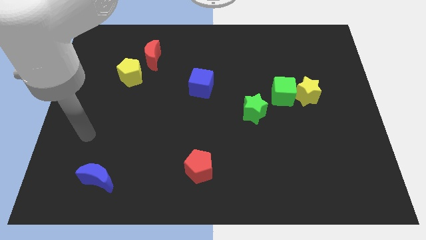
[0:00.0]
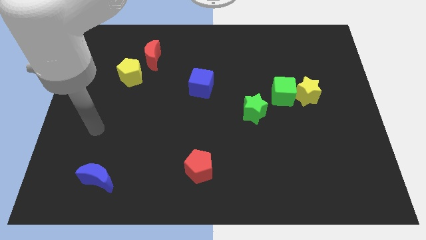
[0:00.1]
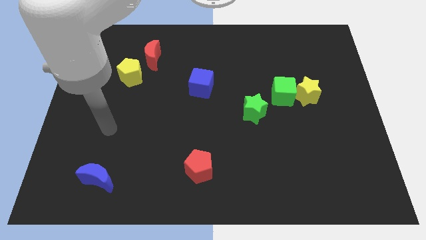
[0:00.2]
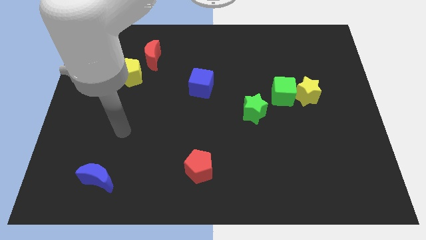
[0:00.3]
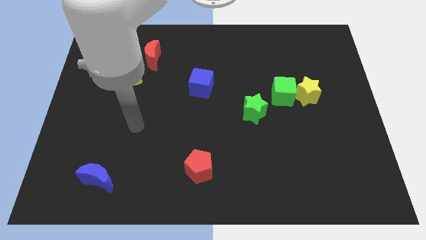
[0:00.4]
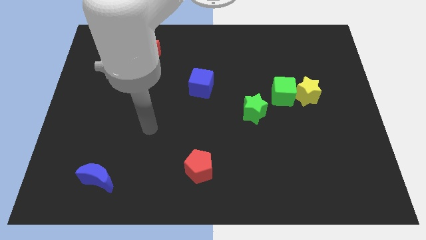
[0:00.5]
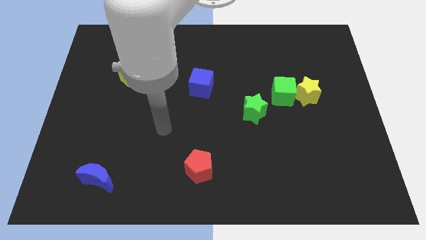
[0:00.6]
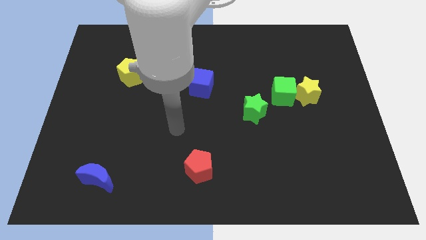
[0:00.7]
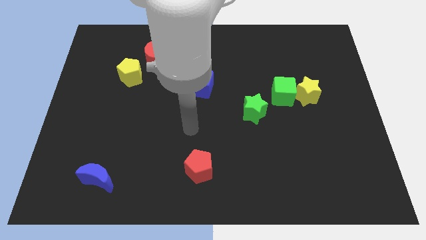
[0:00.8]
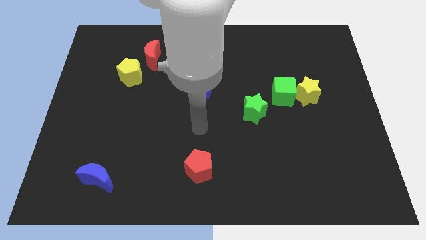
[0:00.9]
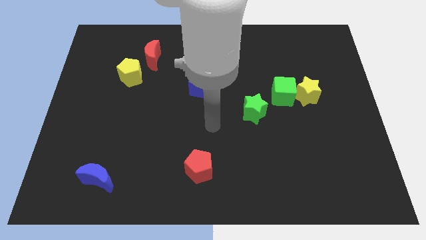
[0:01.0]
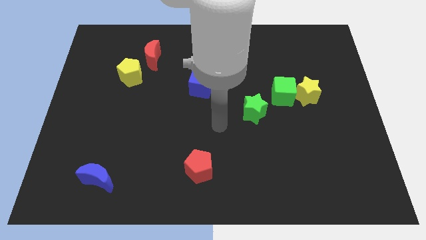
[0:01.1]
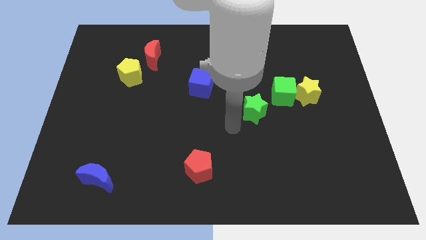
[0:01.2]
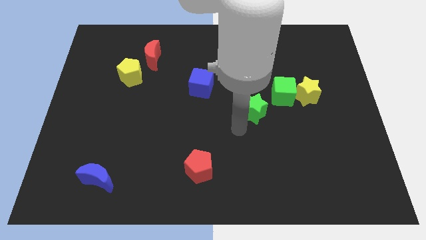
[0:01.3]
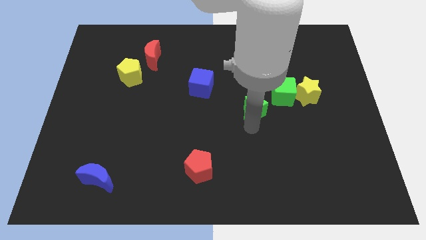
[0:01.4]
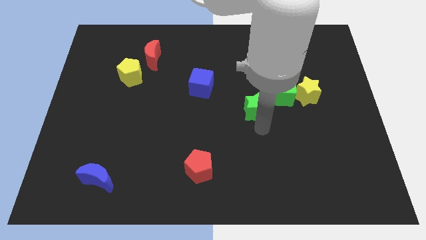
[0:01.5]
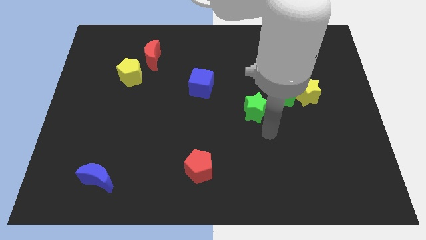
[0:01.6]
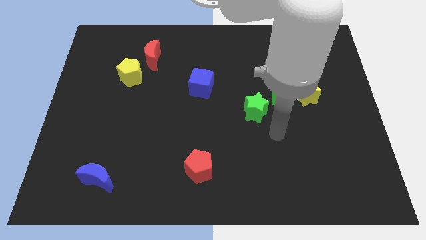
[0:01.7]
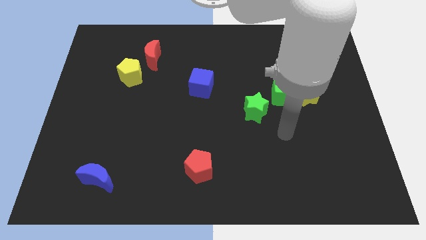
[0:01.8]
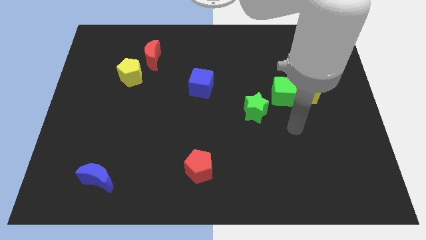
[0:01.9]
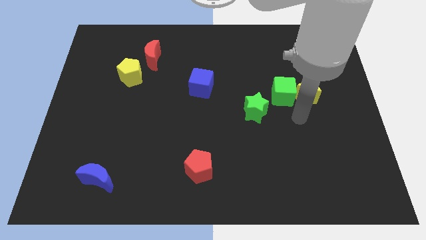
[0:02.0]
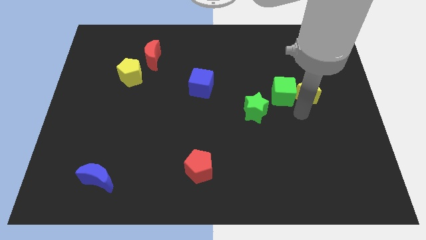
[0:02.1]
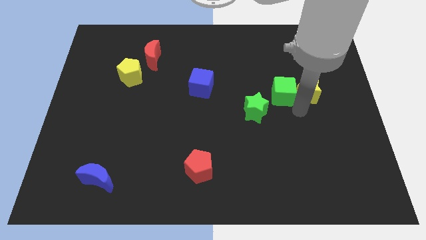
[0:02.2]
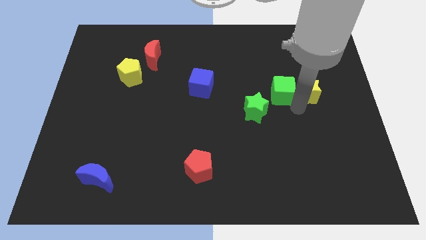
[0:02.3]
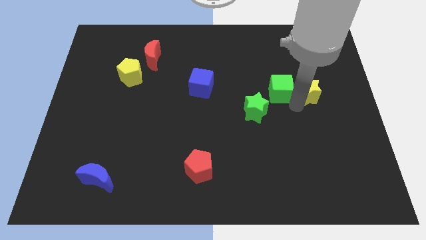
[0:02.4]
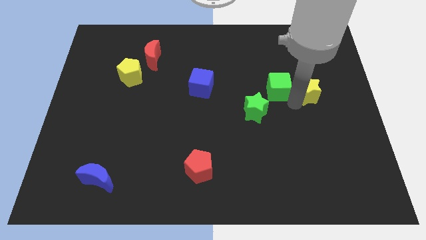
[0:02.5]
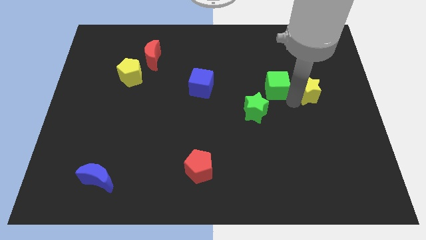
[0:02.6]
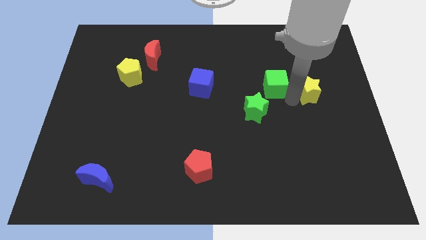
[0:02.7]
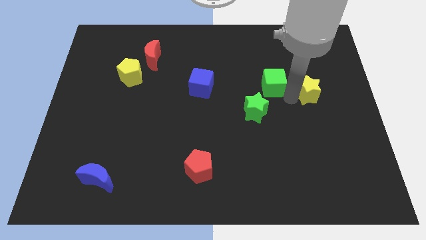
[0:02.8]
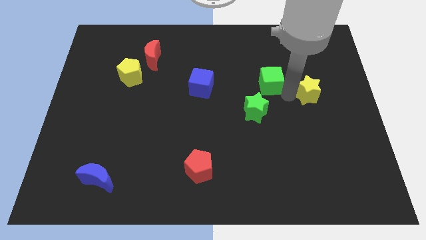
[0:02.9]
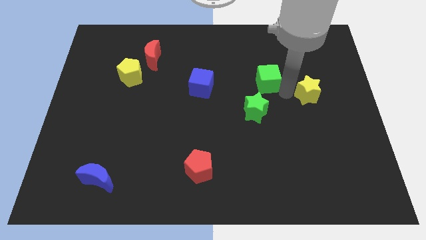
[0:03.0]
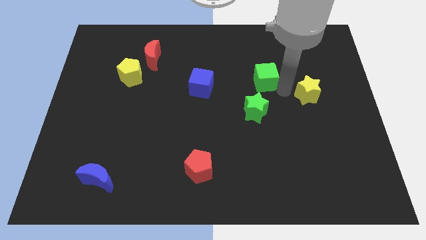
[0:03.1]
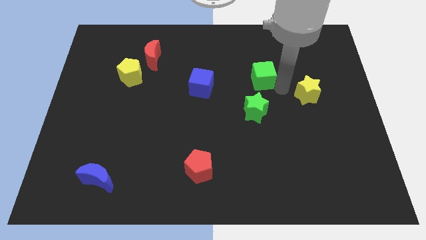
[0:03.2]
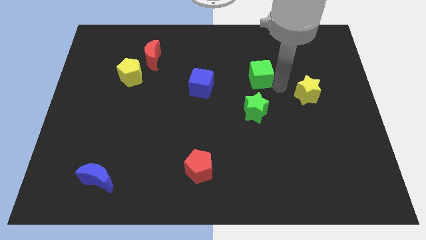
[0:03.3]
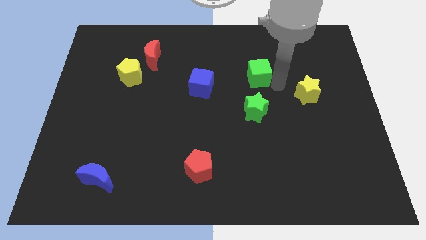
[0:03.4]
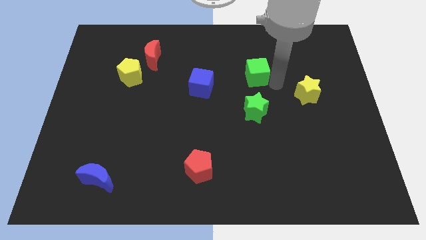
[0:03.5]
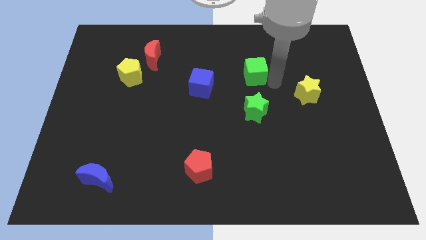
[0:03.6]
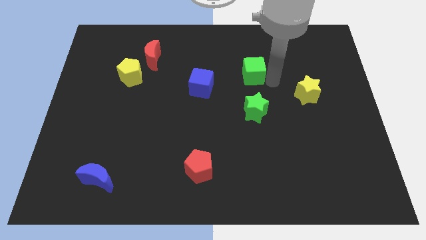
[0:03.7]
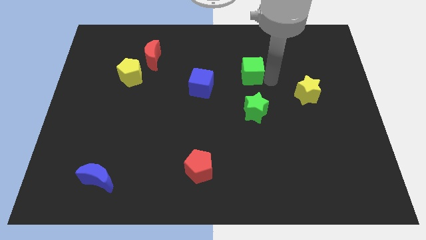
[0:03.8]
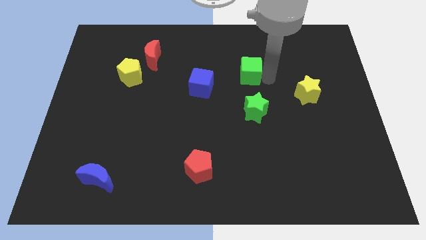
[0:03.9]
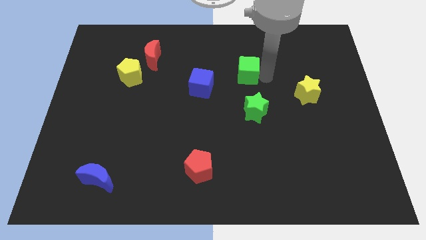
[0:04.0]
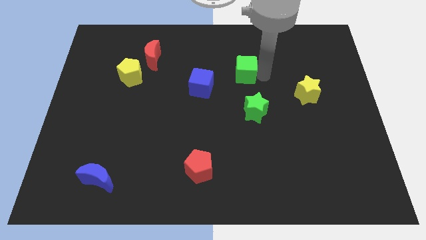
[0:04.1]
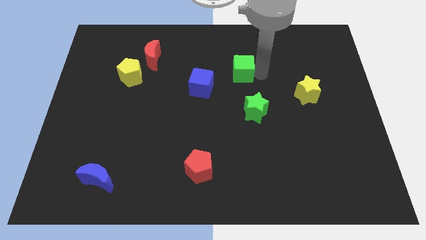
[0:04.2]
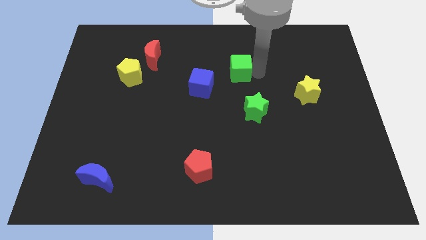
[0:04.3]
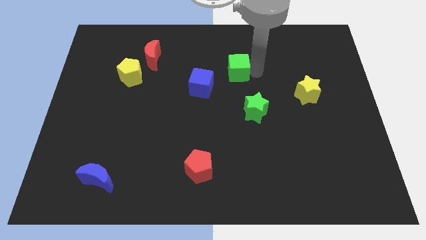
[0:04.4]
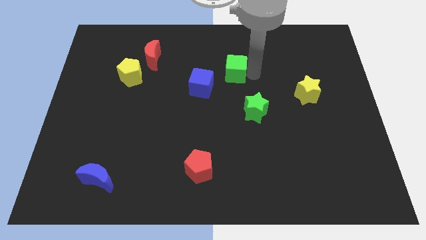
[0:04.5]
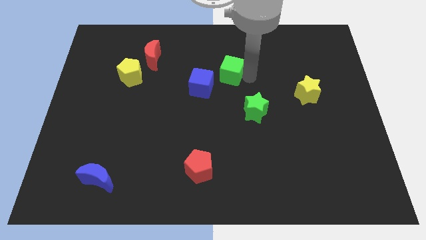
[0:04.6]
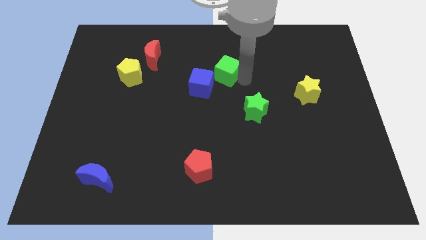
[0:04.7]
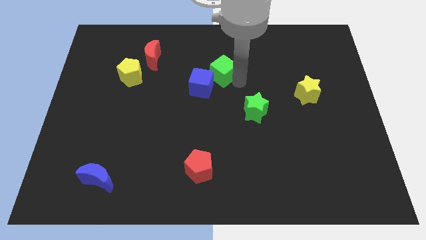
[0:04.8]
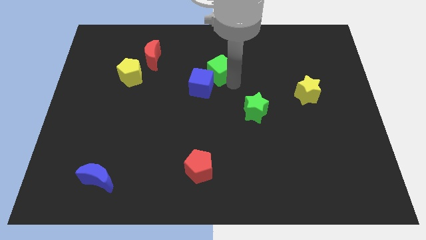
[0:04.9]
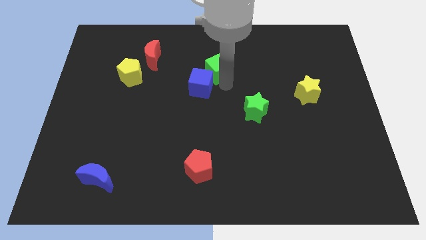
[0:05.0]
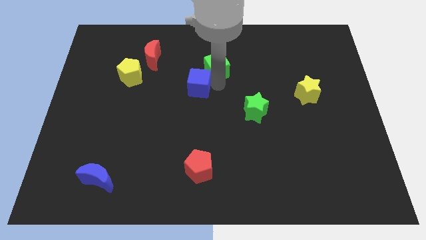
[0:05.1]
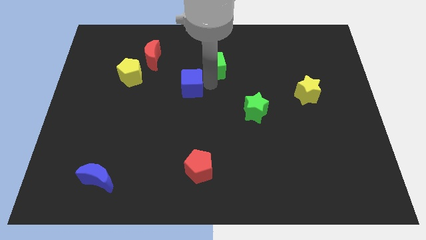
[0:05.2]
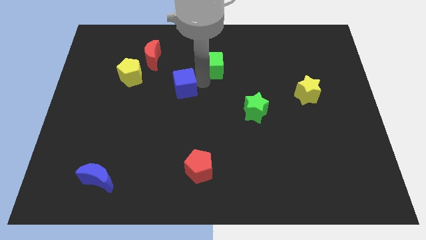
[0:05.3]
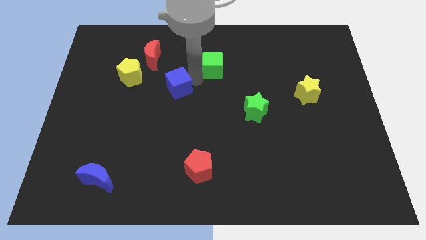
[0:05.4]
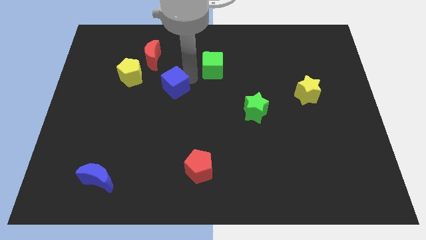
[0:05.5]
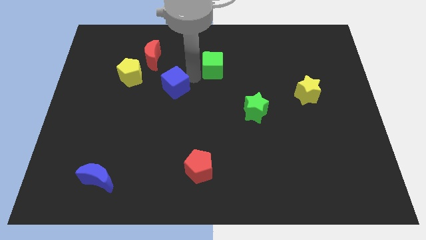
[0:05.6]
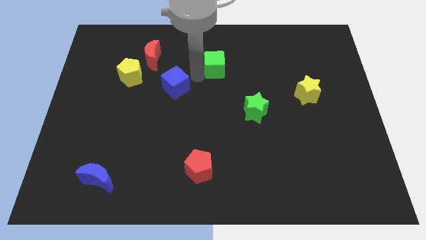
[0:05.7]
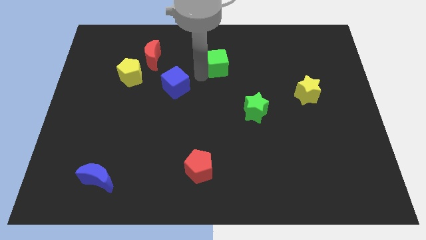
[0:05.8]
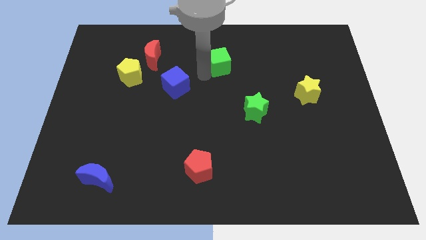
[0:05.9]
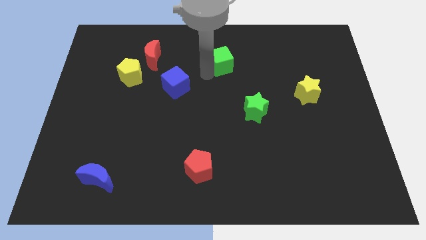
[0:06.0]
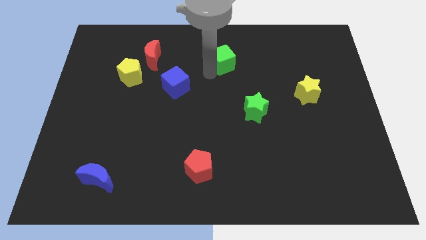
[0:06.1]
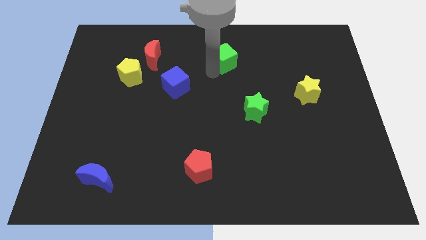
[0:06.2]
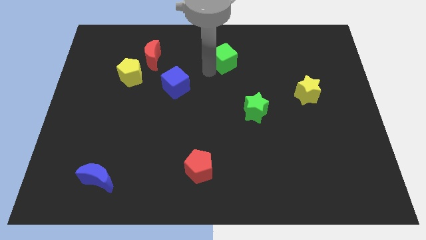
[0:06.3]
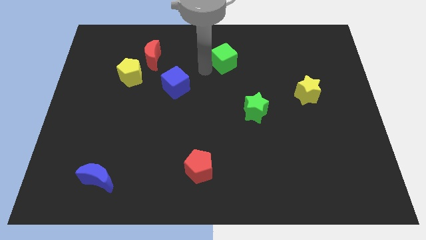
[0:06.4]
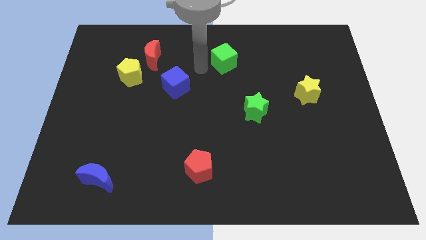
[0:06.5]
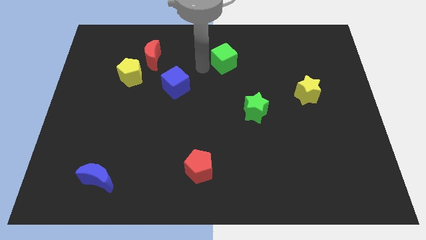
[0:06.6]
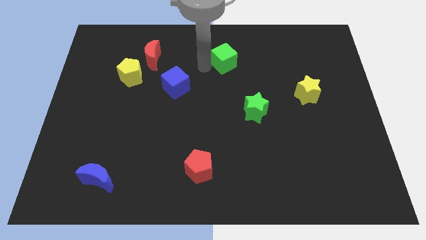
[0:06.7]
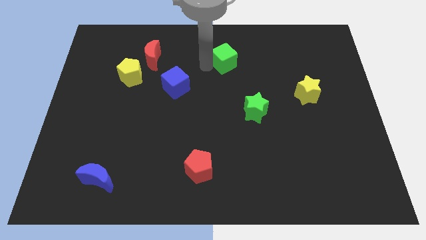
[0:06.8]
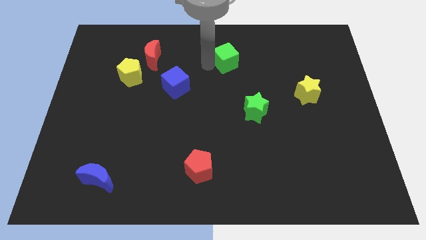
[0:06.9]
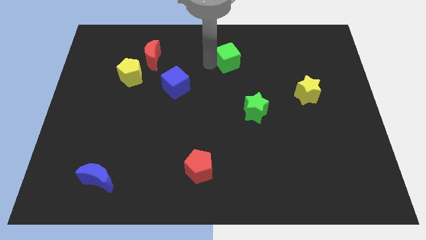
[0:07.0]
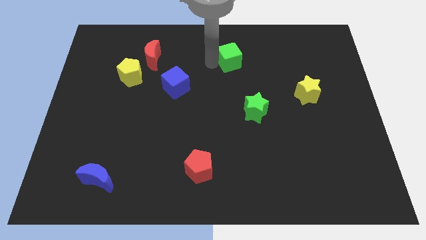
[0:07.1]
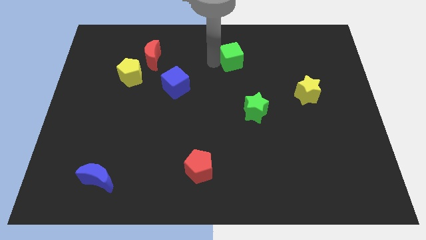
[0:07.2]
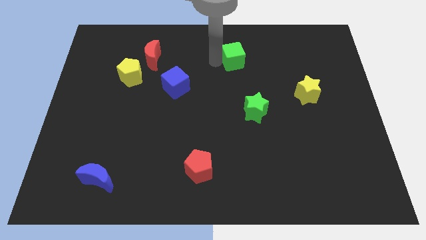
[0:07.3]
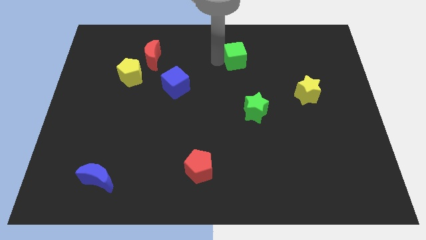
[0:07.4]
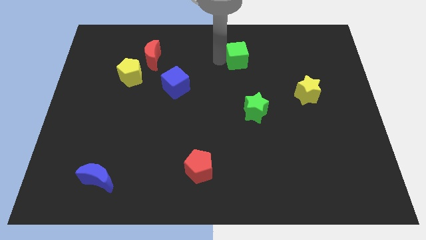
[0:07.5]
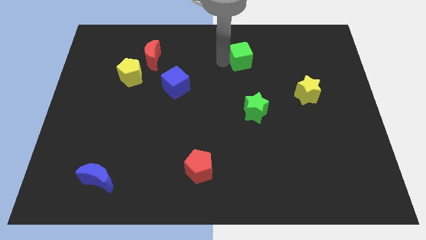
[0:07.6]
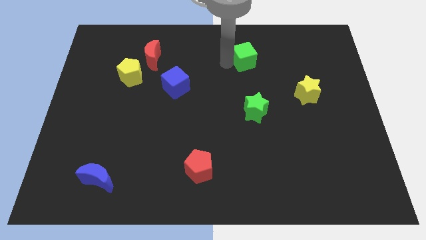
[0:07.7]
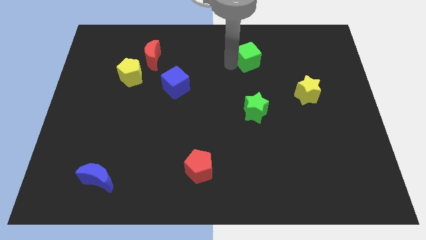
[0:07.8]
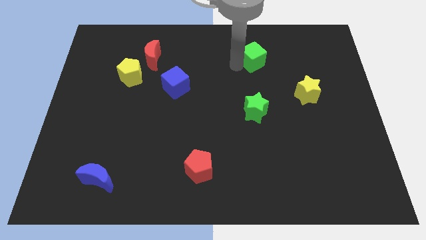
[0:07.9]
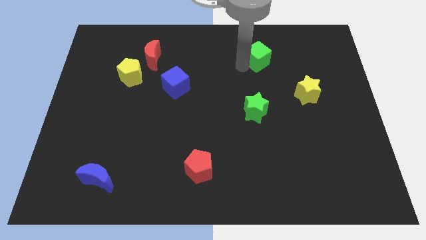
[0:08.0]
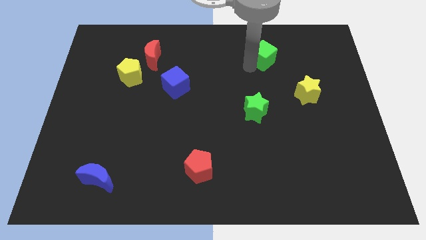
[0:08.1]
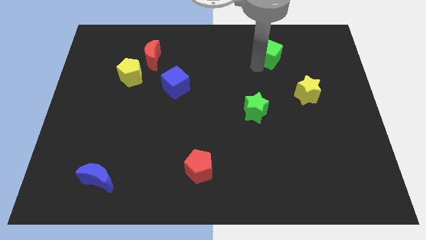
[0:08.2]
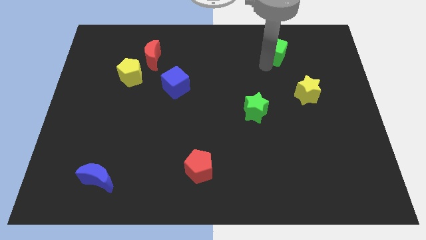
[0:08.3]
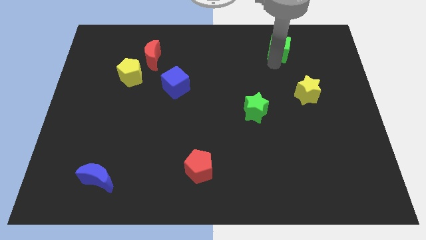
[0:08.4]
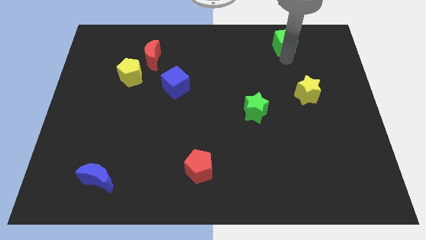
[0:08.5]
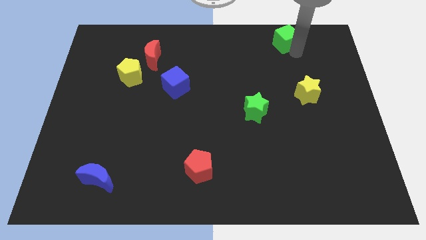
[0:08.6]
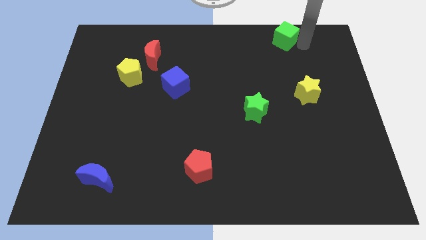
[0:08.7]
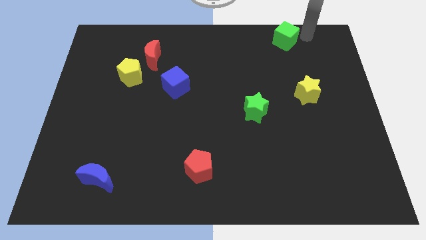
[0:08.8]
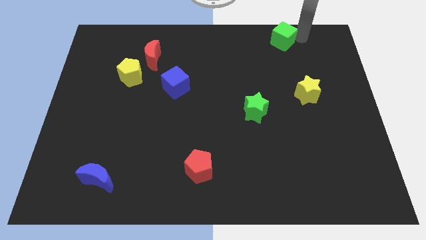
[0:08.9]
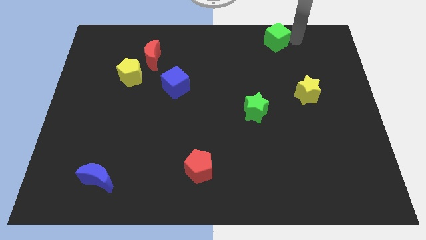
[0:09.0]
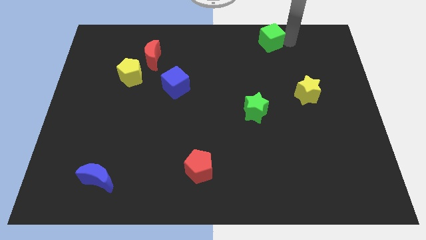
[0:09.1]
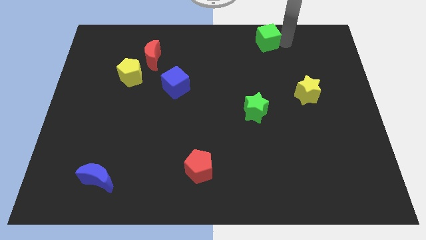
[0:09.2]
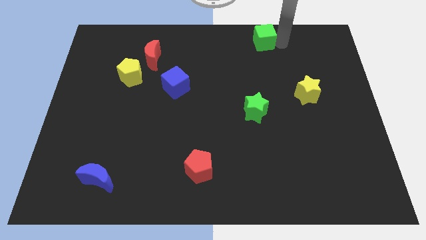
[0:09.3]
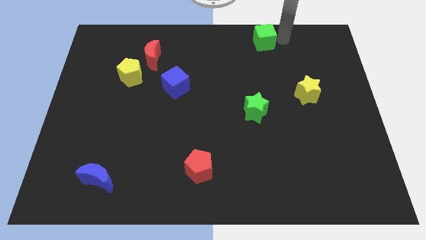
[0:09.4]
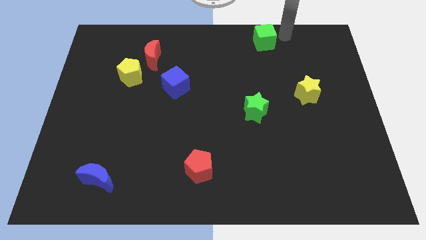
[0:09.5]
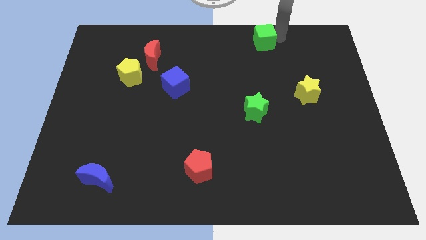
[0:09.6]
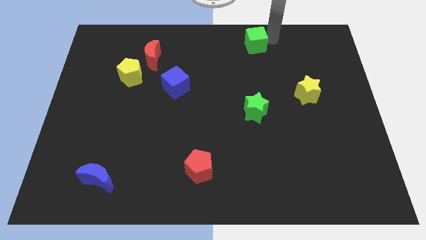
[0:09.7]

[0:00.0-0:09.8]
move the green cube to the towards your base
